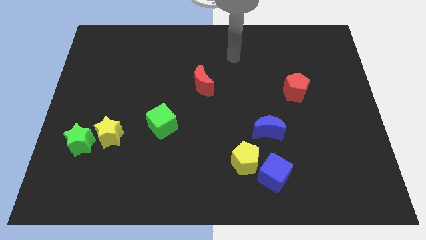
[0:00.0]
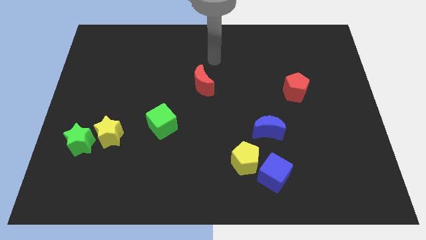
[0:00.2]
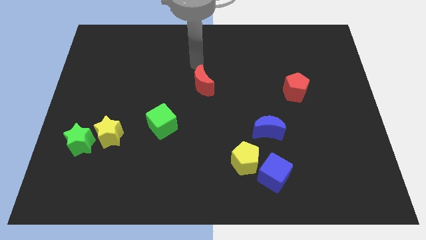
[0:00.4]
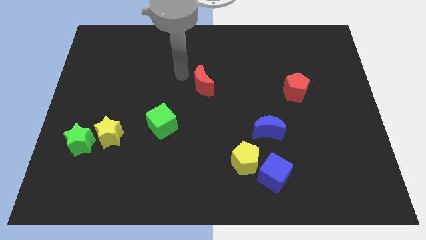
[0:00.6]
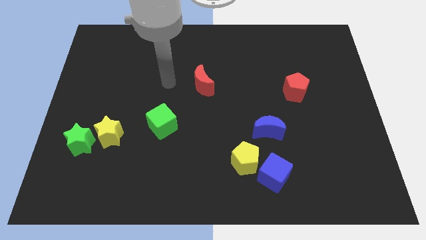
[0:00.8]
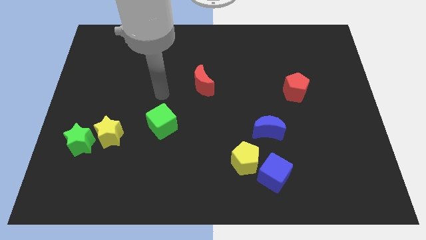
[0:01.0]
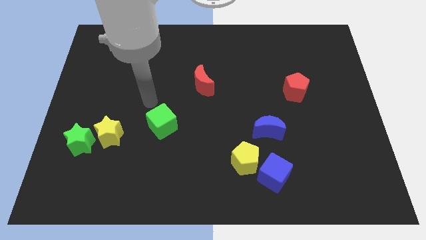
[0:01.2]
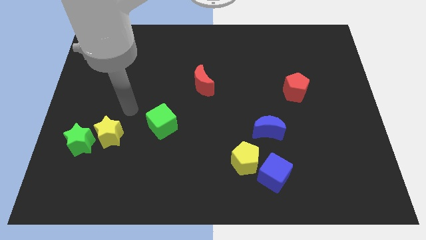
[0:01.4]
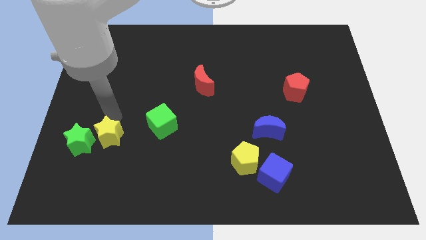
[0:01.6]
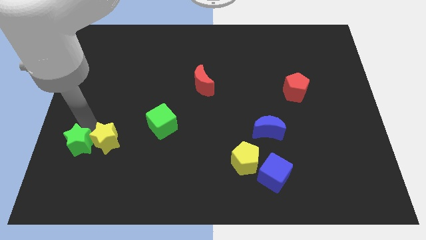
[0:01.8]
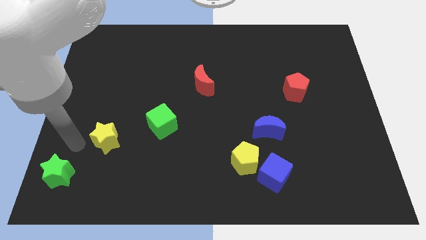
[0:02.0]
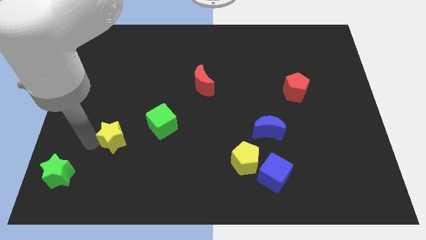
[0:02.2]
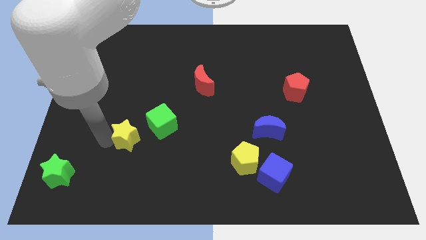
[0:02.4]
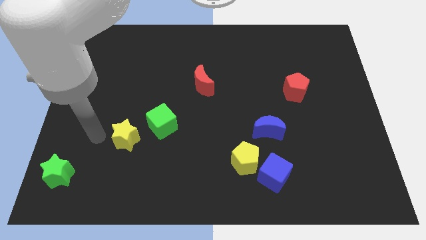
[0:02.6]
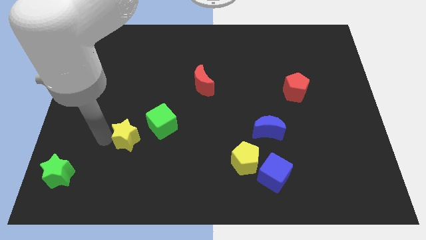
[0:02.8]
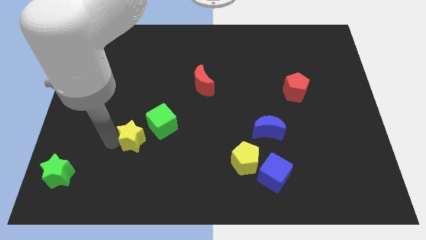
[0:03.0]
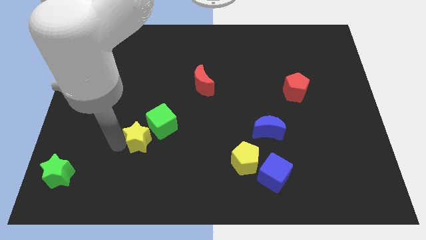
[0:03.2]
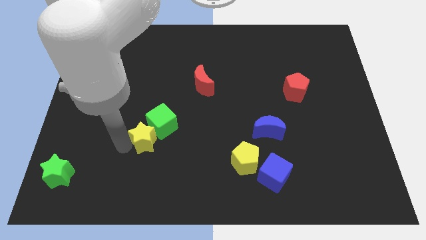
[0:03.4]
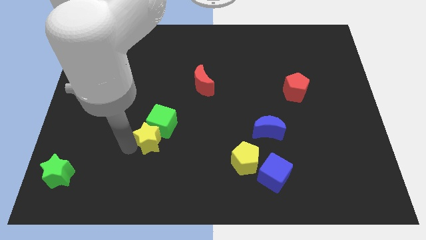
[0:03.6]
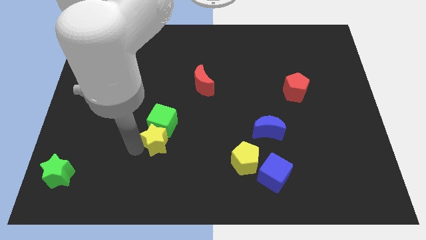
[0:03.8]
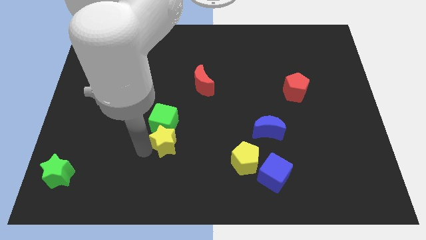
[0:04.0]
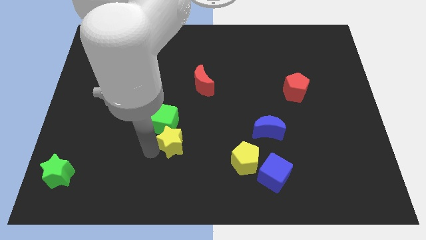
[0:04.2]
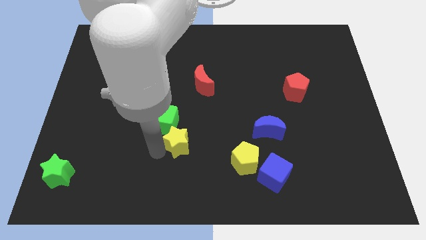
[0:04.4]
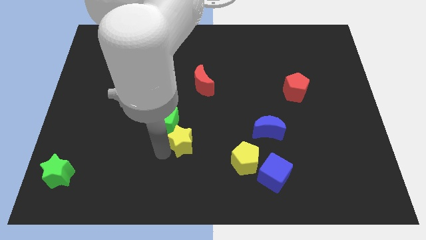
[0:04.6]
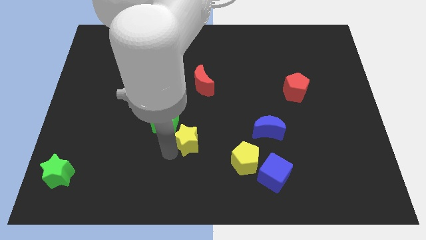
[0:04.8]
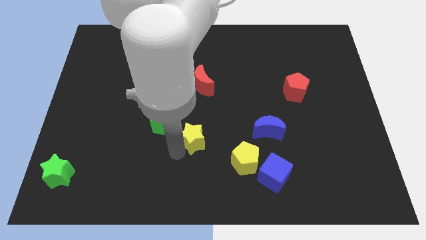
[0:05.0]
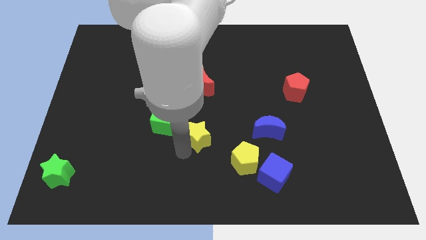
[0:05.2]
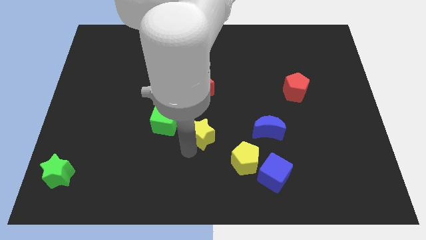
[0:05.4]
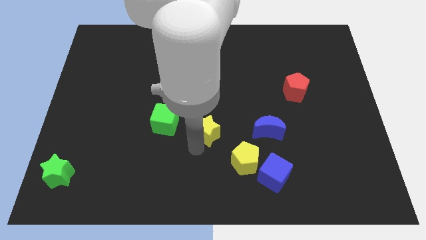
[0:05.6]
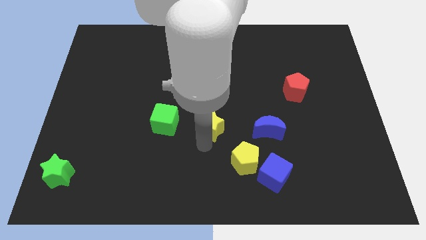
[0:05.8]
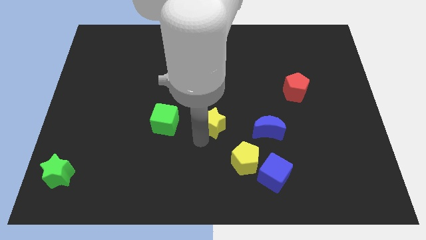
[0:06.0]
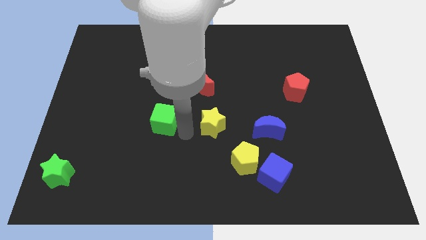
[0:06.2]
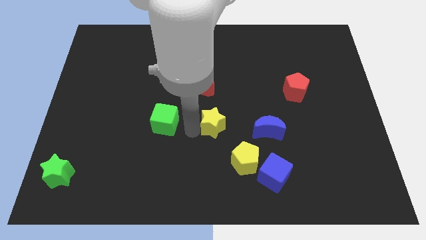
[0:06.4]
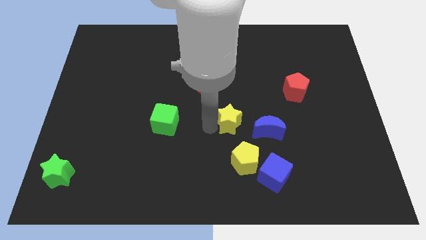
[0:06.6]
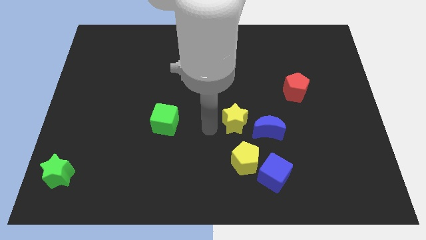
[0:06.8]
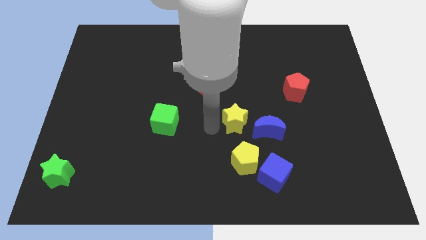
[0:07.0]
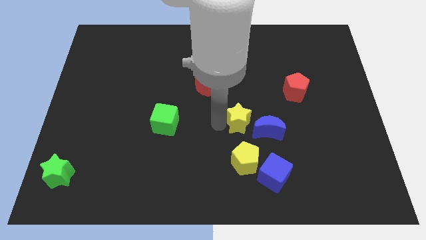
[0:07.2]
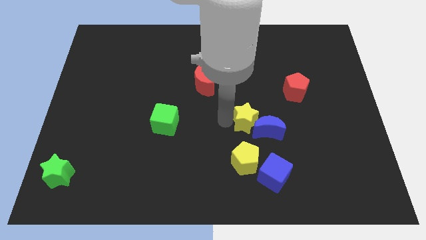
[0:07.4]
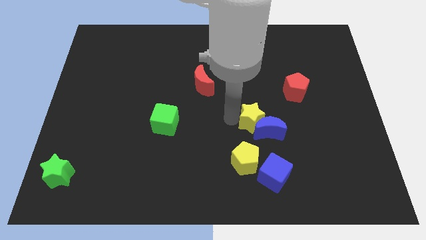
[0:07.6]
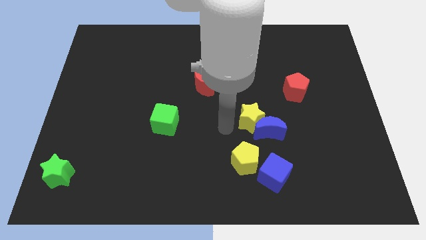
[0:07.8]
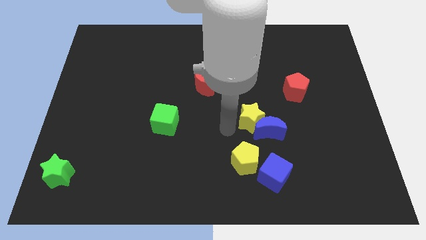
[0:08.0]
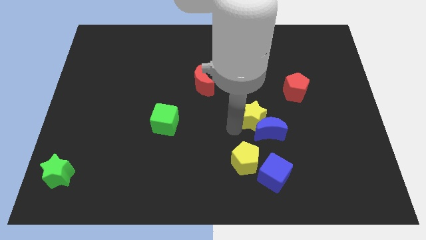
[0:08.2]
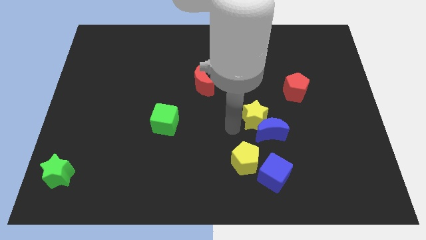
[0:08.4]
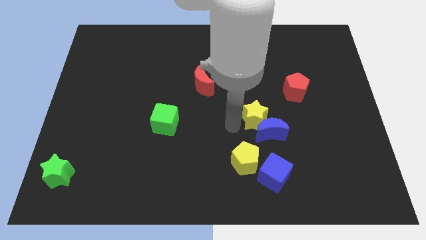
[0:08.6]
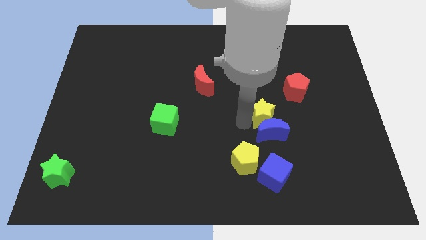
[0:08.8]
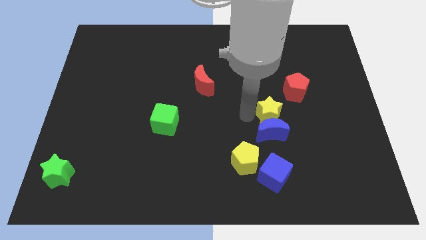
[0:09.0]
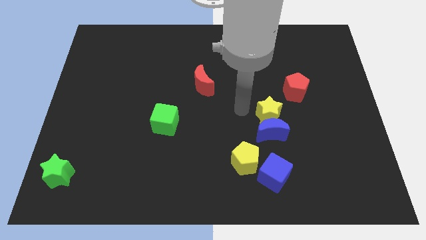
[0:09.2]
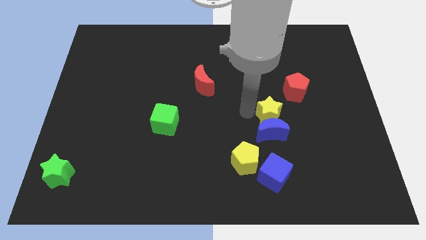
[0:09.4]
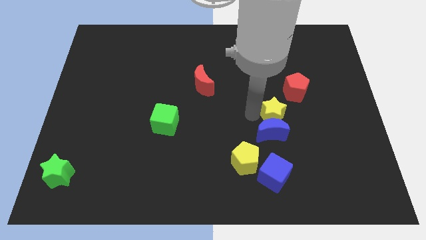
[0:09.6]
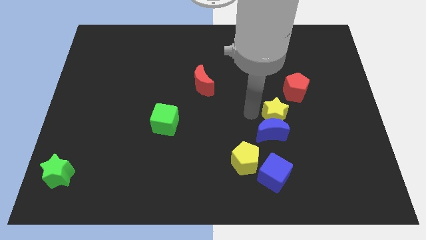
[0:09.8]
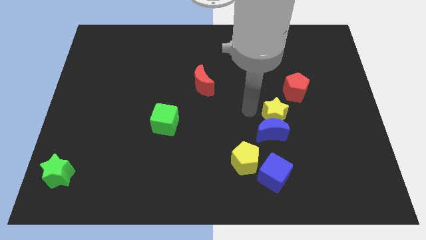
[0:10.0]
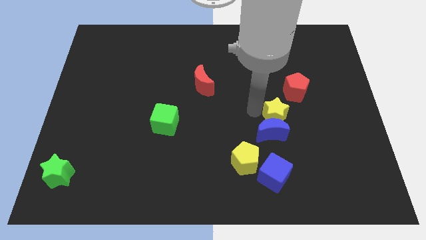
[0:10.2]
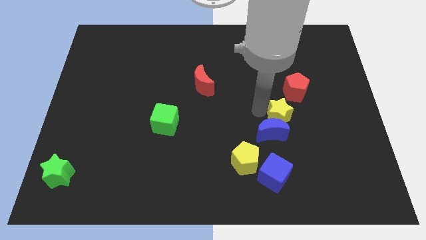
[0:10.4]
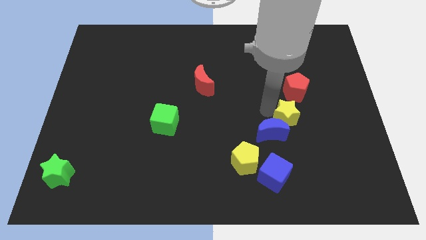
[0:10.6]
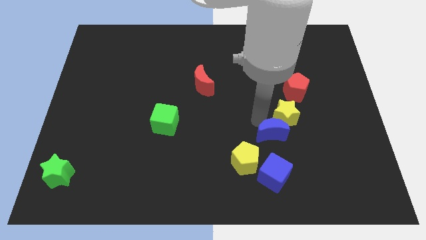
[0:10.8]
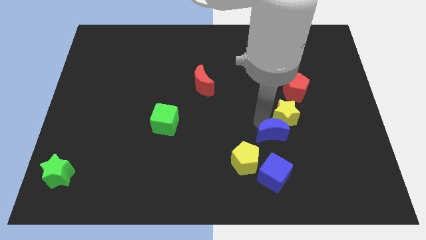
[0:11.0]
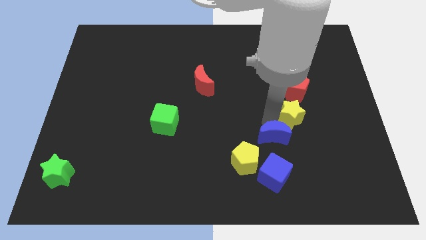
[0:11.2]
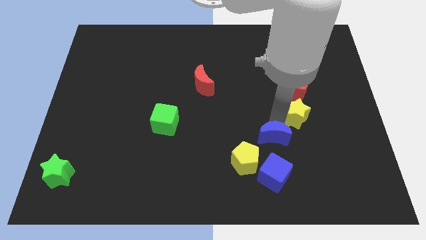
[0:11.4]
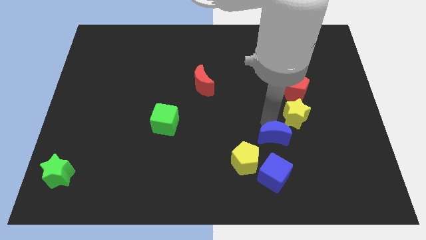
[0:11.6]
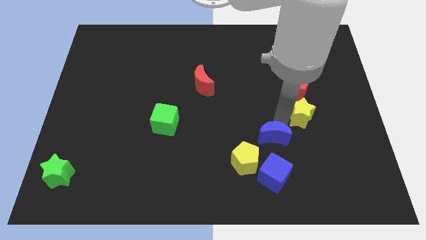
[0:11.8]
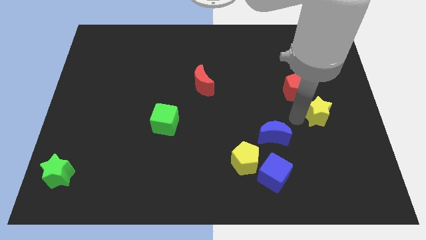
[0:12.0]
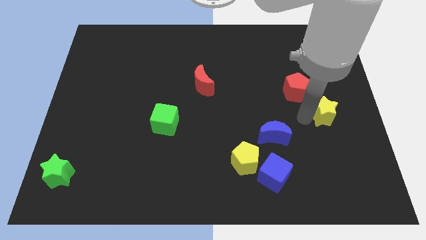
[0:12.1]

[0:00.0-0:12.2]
move the yellow star to the right side of the board
